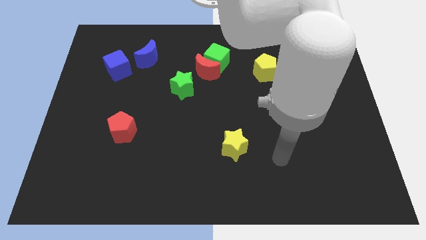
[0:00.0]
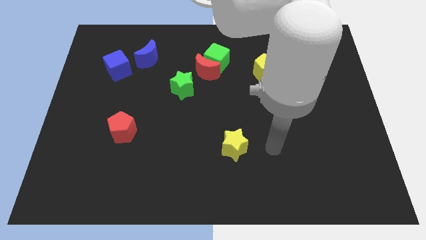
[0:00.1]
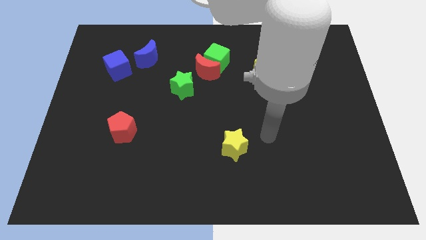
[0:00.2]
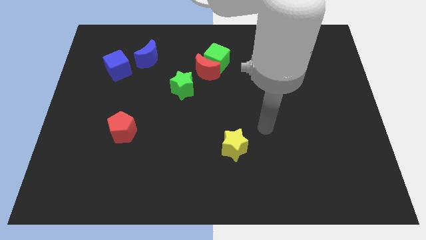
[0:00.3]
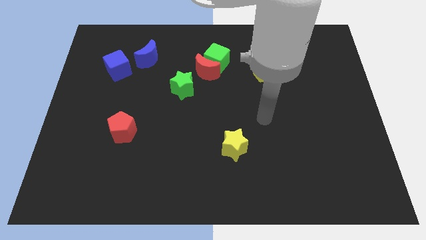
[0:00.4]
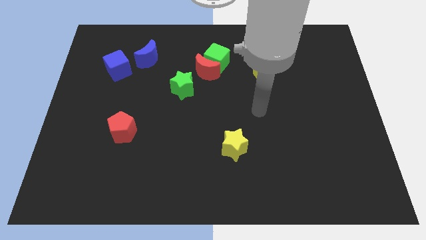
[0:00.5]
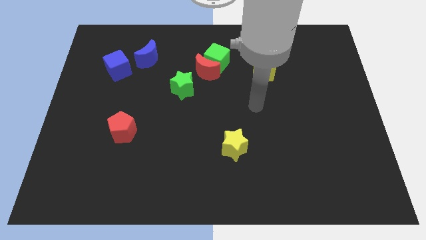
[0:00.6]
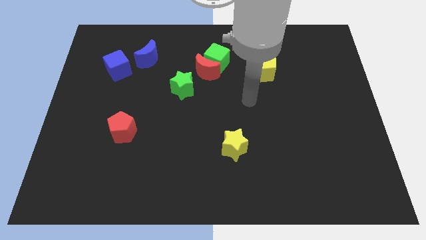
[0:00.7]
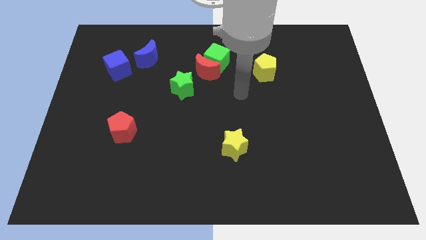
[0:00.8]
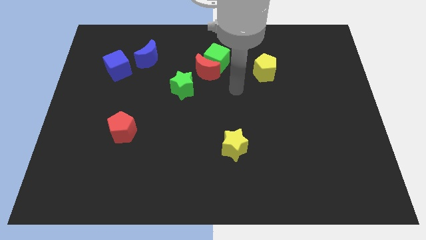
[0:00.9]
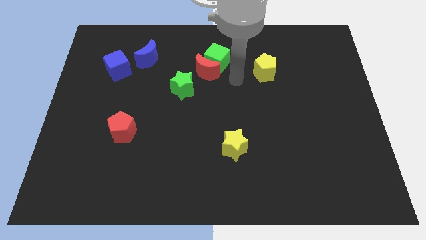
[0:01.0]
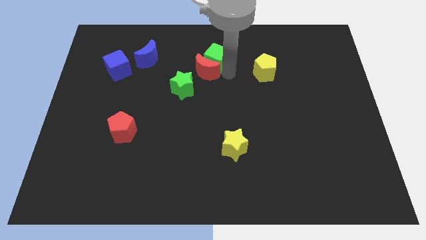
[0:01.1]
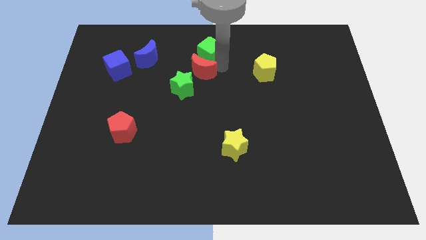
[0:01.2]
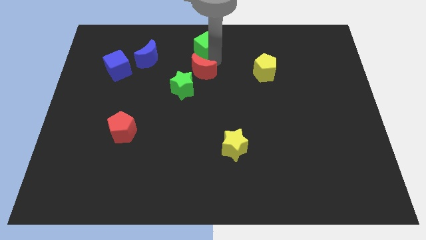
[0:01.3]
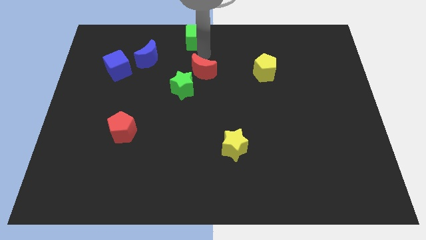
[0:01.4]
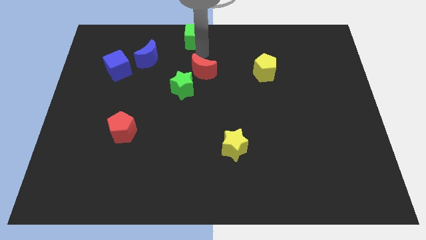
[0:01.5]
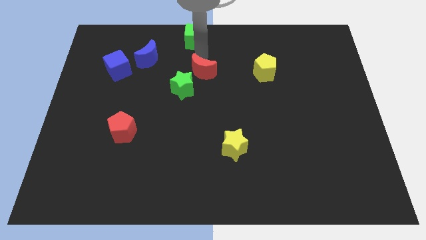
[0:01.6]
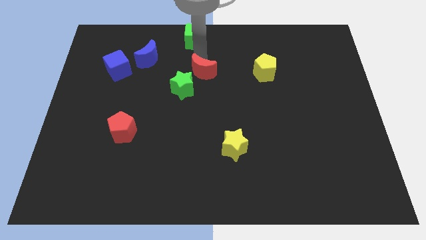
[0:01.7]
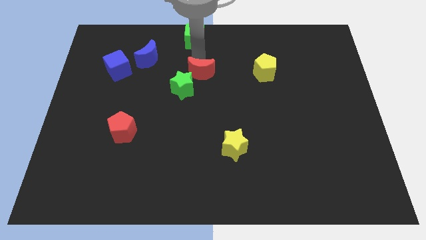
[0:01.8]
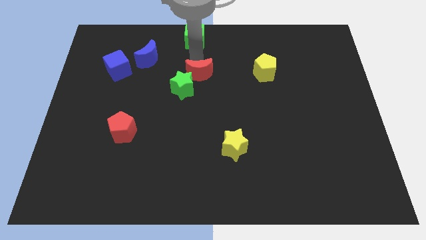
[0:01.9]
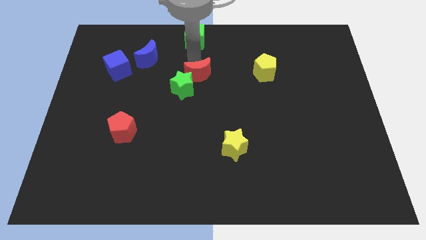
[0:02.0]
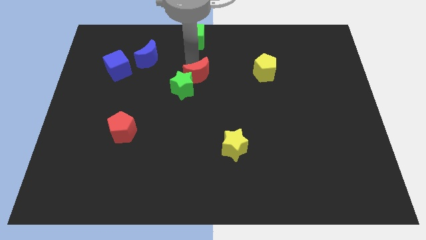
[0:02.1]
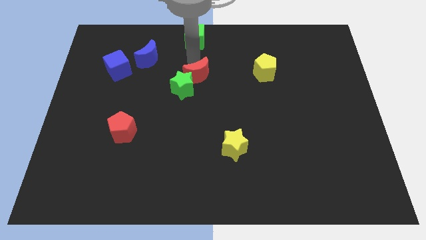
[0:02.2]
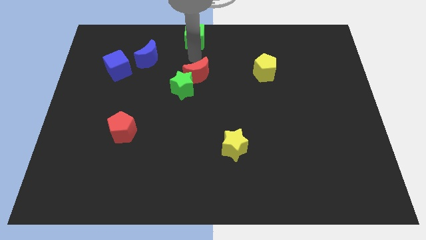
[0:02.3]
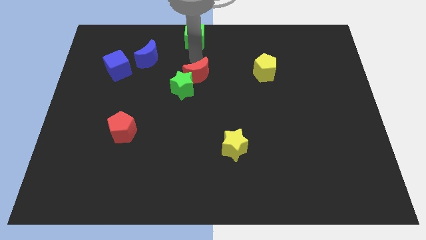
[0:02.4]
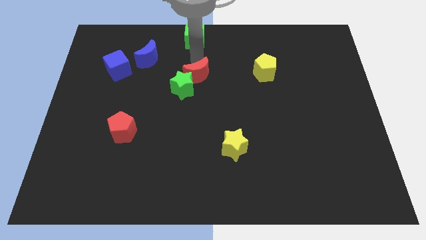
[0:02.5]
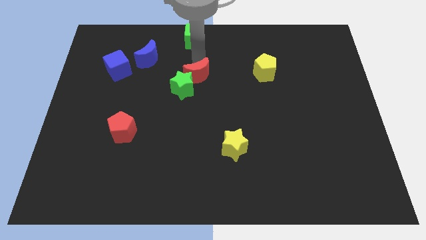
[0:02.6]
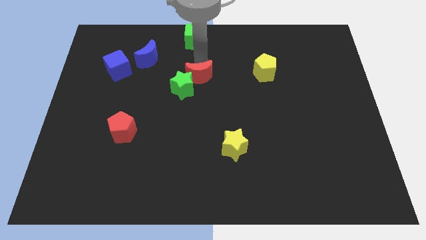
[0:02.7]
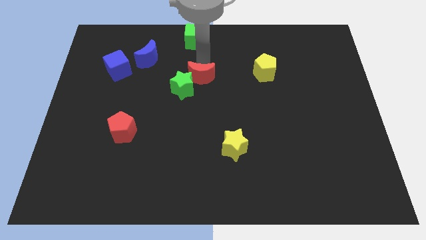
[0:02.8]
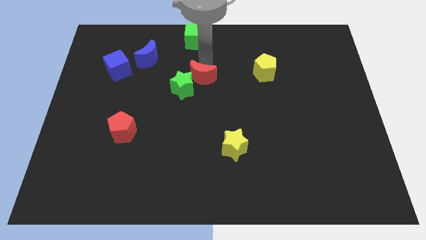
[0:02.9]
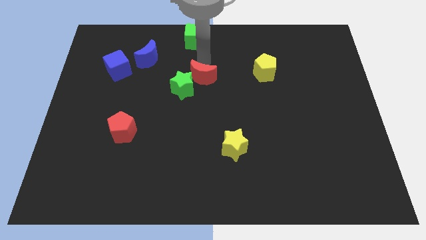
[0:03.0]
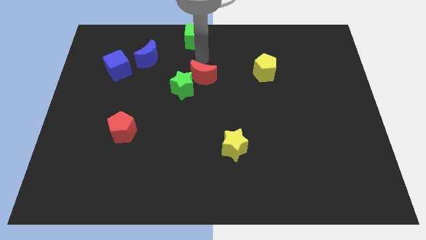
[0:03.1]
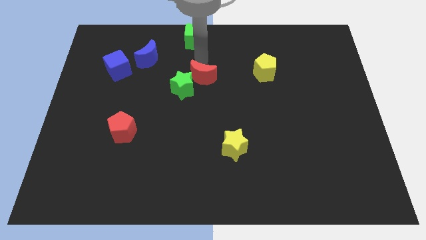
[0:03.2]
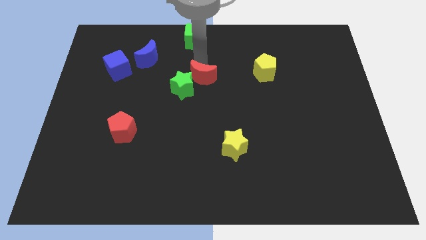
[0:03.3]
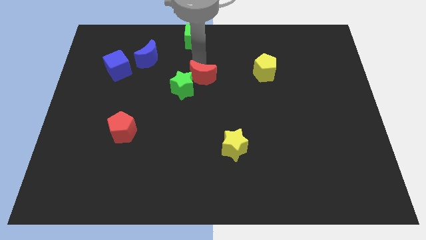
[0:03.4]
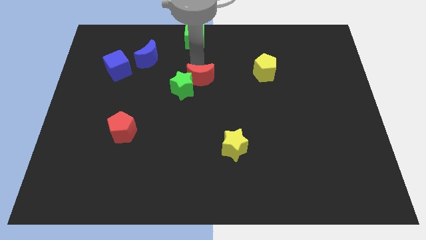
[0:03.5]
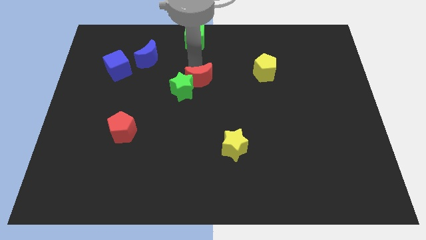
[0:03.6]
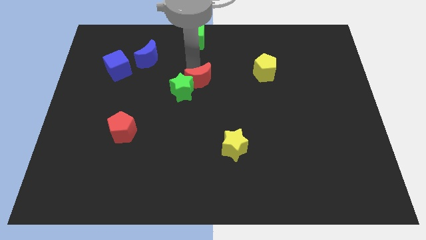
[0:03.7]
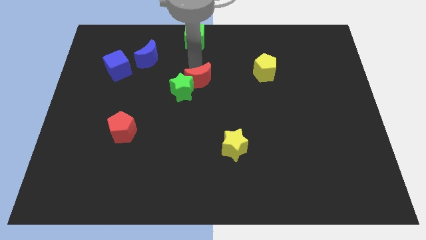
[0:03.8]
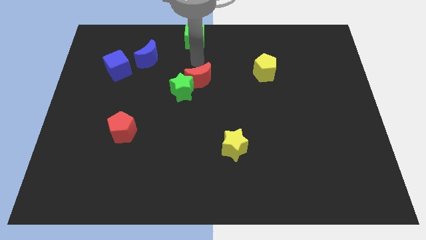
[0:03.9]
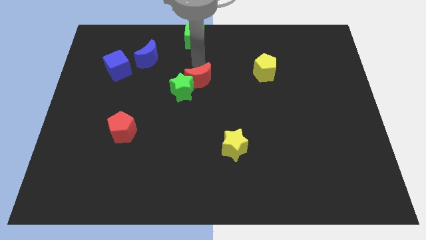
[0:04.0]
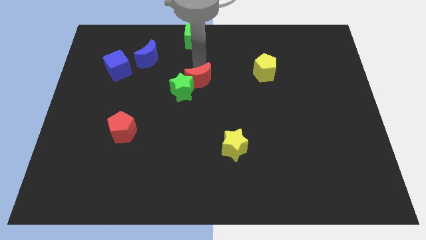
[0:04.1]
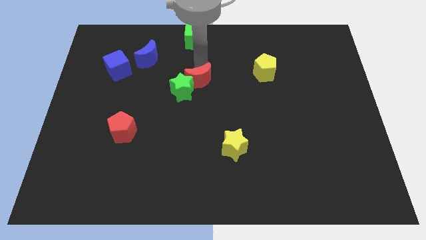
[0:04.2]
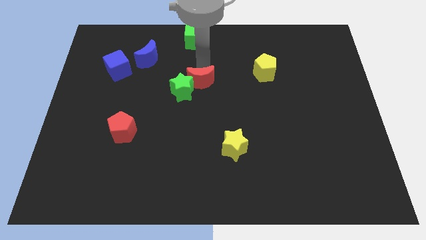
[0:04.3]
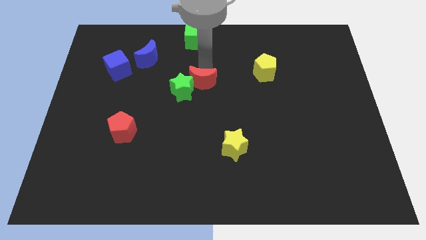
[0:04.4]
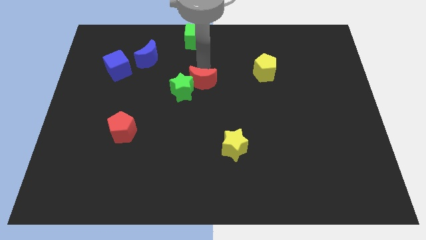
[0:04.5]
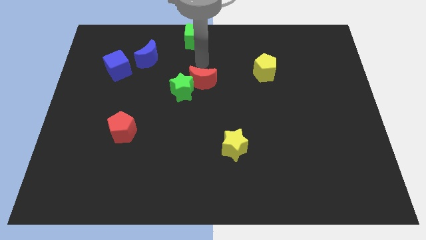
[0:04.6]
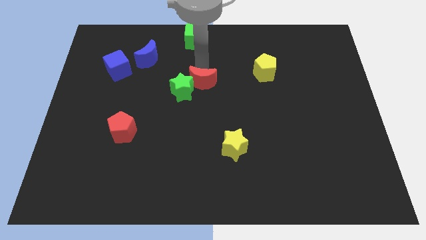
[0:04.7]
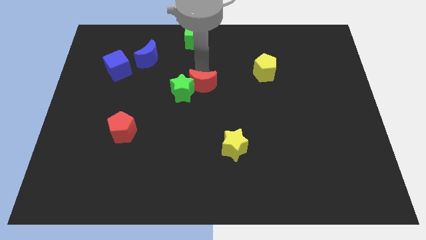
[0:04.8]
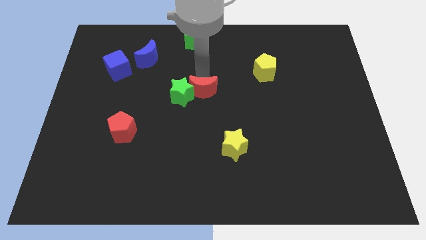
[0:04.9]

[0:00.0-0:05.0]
push the red moon diagonally down and to the right of the green star

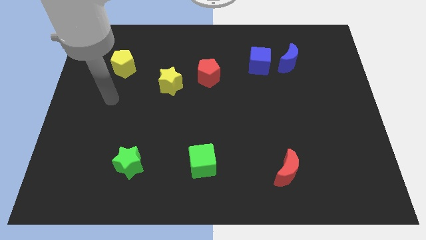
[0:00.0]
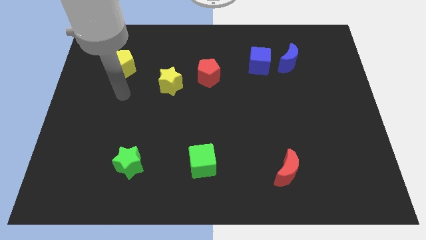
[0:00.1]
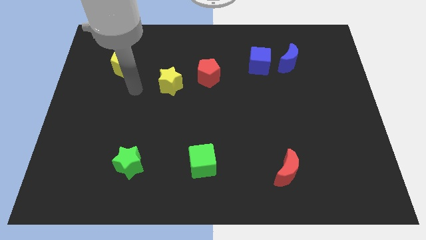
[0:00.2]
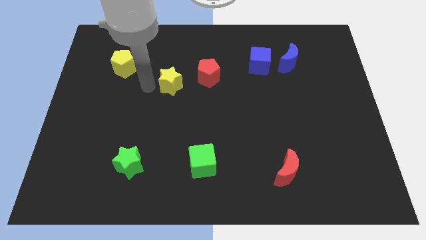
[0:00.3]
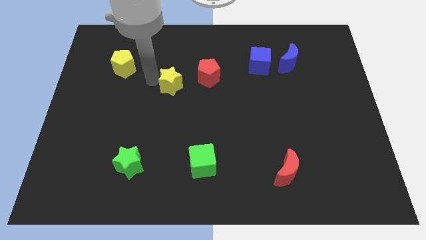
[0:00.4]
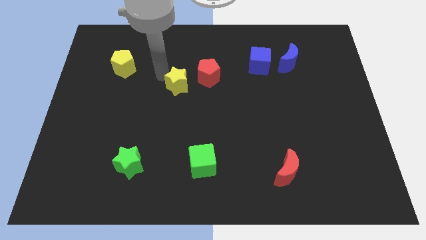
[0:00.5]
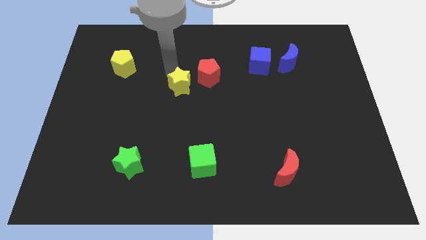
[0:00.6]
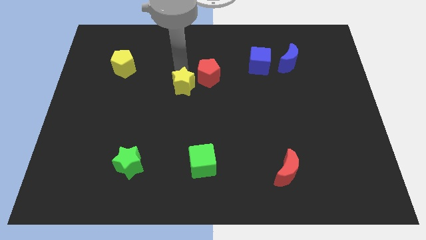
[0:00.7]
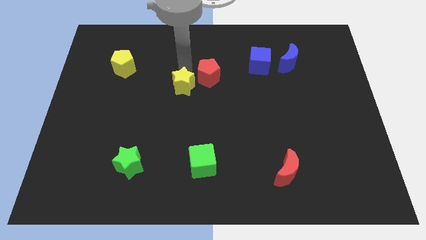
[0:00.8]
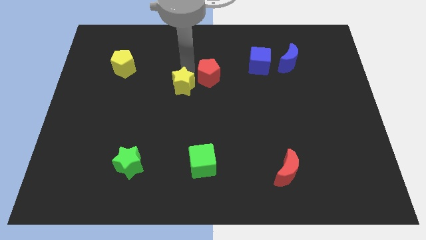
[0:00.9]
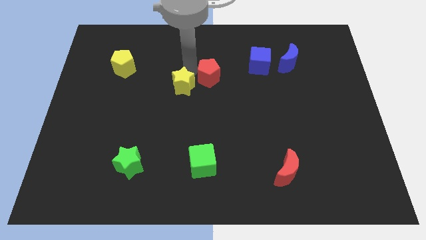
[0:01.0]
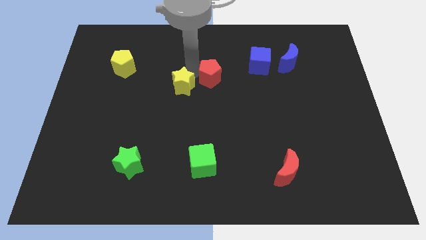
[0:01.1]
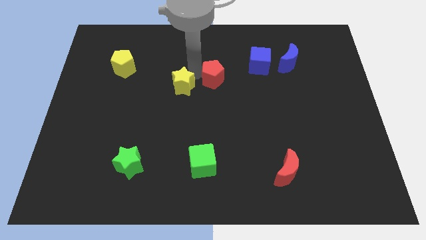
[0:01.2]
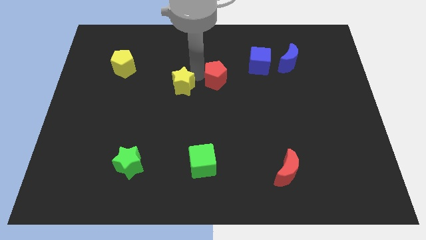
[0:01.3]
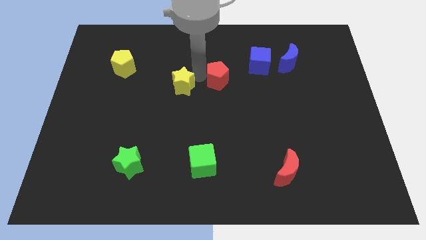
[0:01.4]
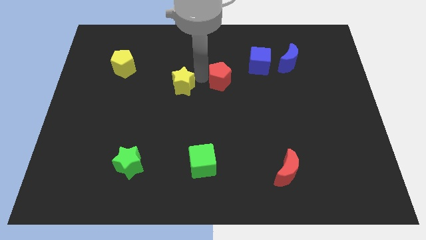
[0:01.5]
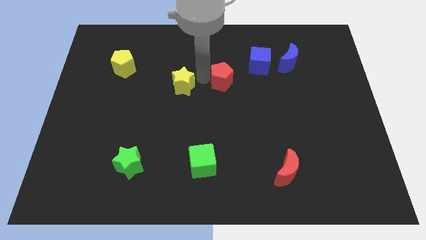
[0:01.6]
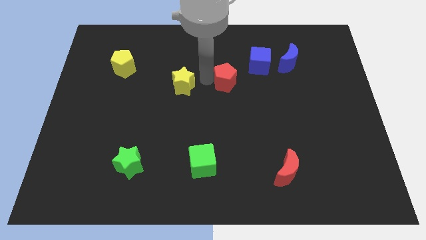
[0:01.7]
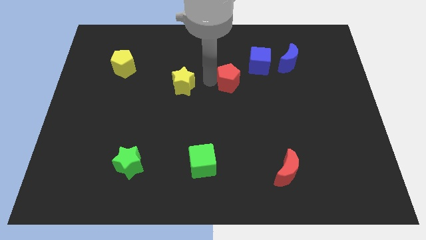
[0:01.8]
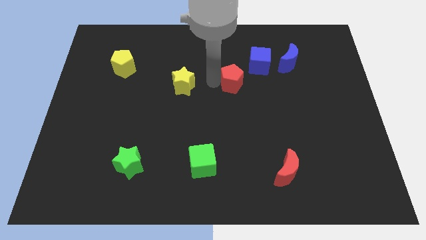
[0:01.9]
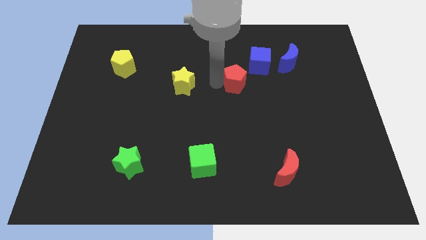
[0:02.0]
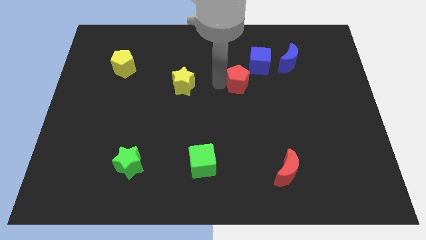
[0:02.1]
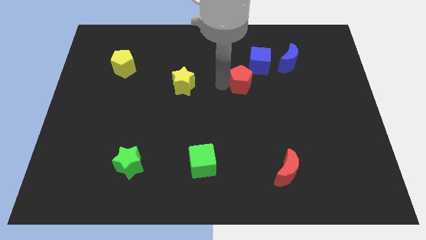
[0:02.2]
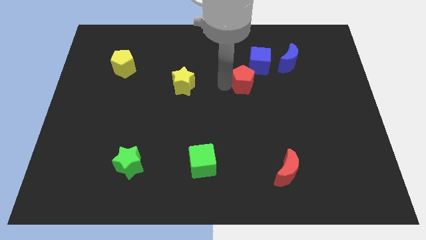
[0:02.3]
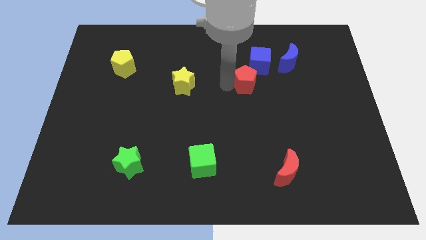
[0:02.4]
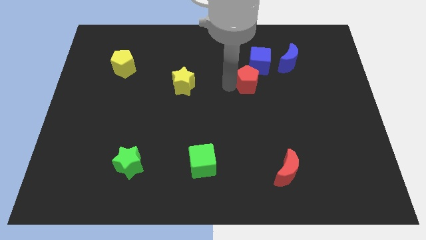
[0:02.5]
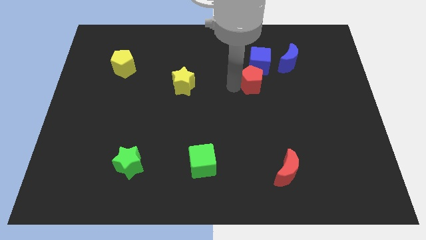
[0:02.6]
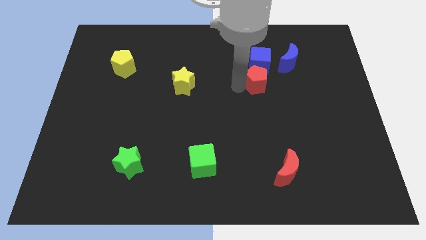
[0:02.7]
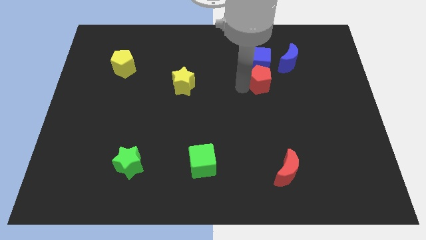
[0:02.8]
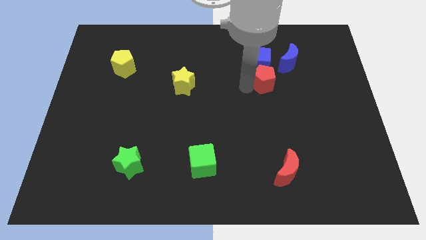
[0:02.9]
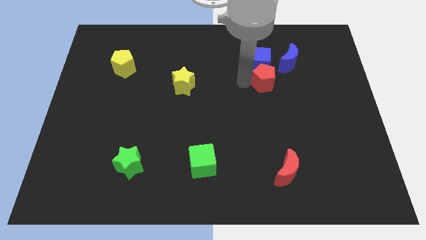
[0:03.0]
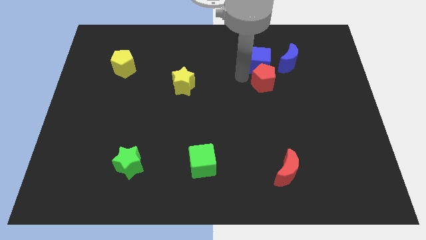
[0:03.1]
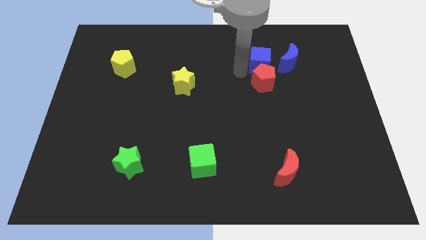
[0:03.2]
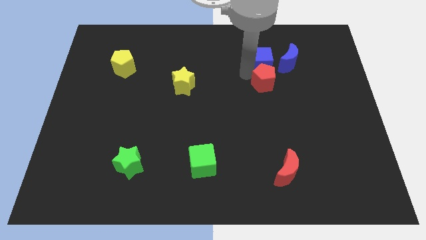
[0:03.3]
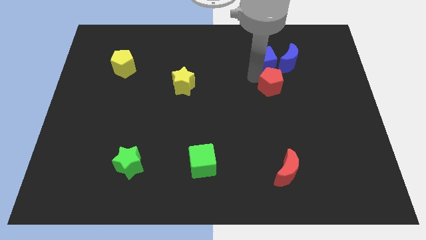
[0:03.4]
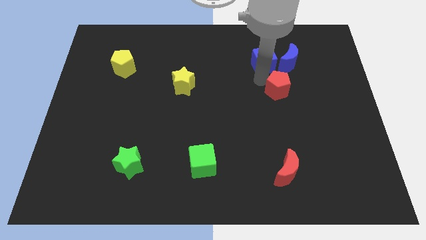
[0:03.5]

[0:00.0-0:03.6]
push the red pentagon below the blue moon
